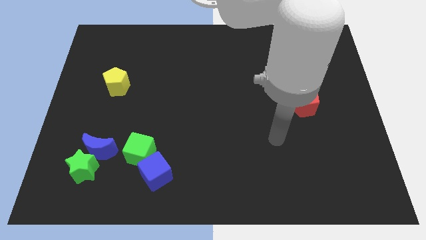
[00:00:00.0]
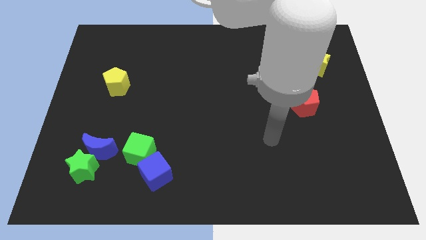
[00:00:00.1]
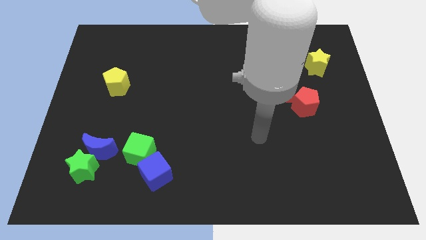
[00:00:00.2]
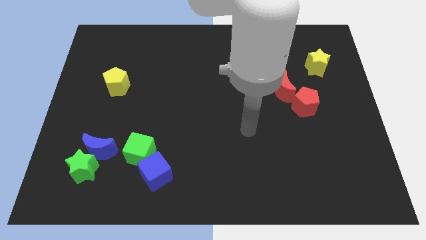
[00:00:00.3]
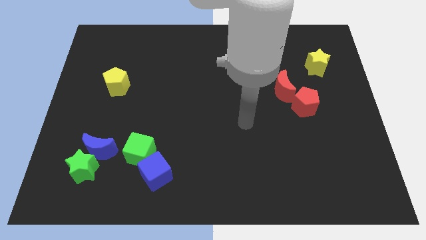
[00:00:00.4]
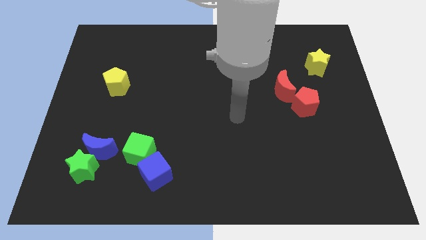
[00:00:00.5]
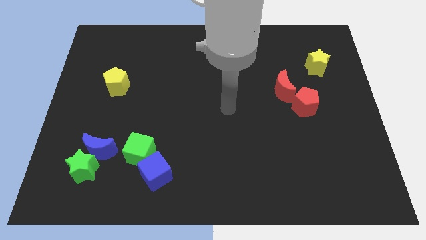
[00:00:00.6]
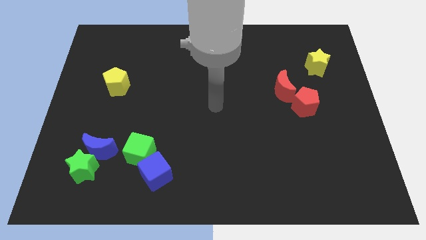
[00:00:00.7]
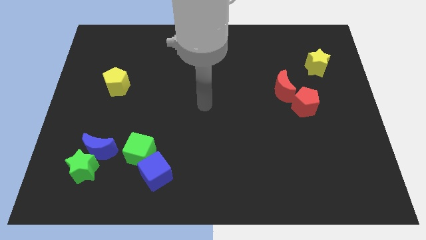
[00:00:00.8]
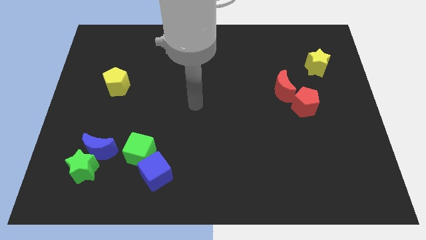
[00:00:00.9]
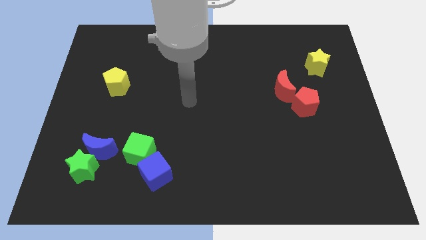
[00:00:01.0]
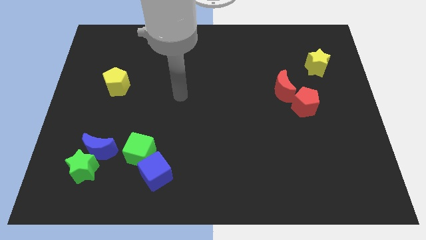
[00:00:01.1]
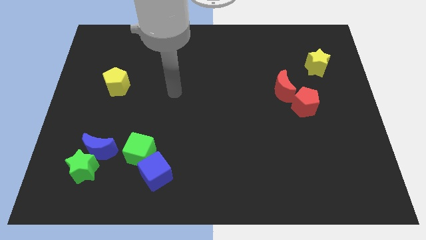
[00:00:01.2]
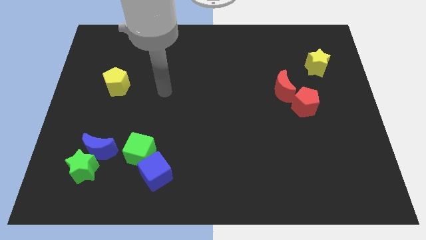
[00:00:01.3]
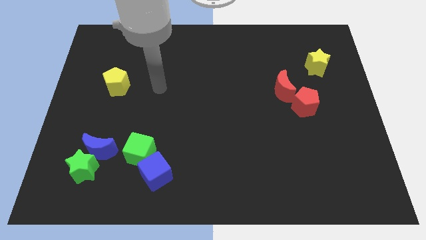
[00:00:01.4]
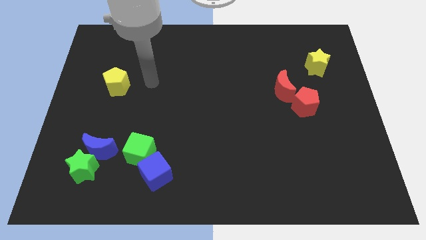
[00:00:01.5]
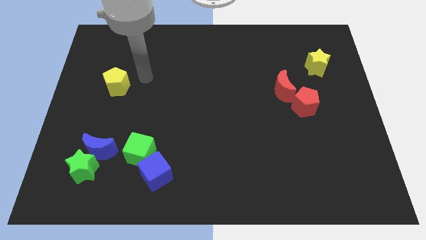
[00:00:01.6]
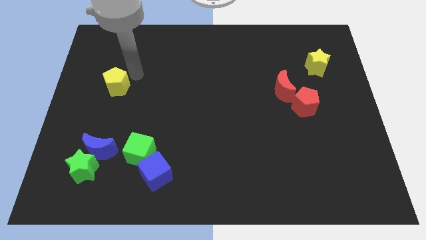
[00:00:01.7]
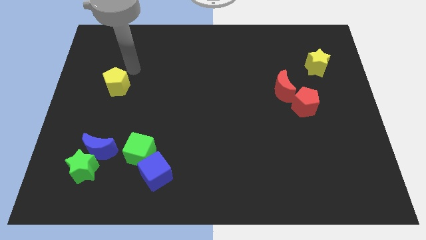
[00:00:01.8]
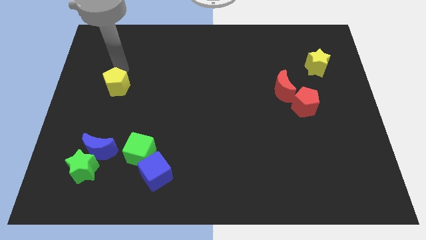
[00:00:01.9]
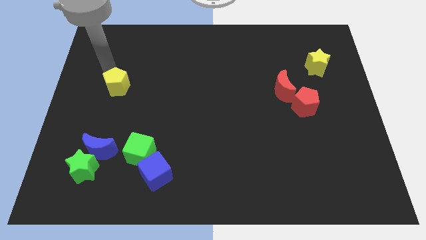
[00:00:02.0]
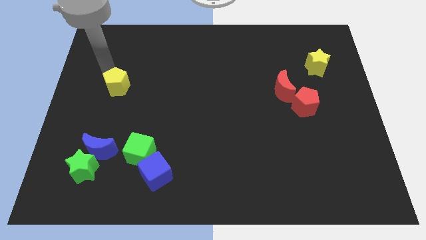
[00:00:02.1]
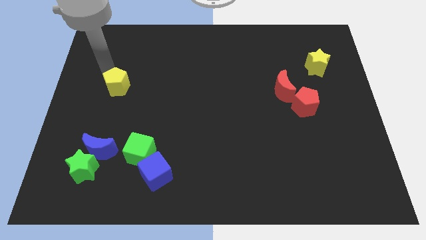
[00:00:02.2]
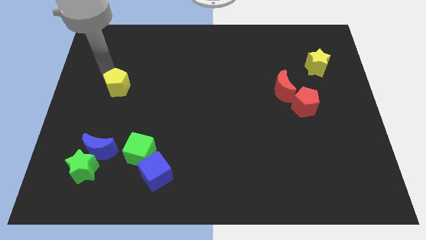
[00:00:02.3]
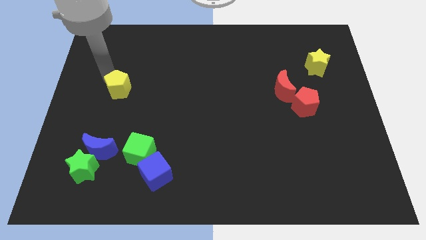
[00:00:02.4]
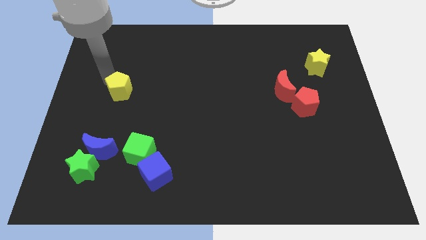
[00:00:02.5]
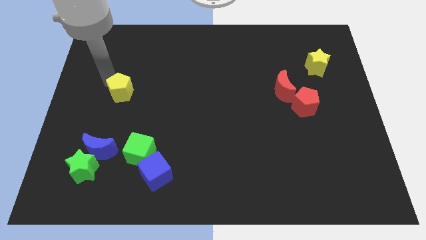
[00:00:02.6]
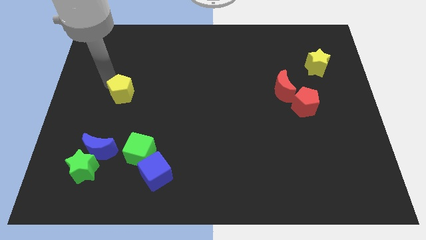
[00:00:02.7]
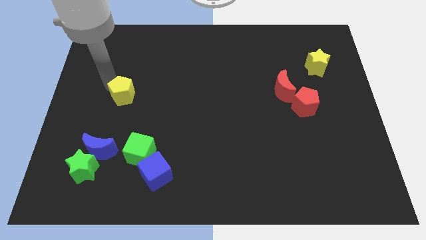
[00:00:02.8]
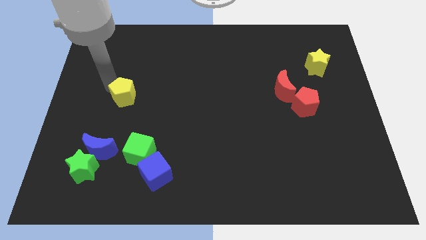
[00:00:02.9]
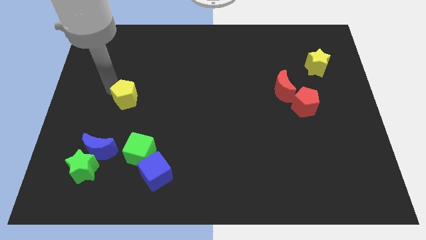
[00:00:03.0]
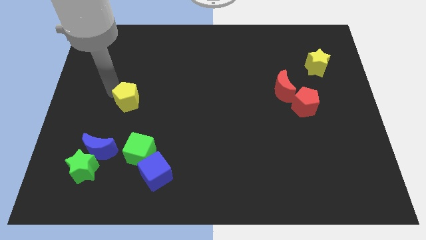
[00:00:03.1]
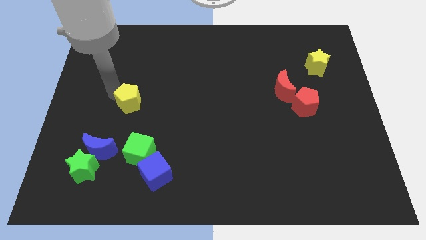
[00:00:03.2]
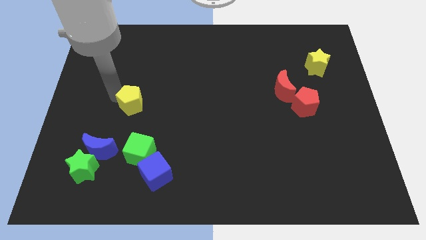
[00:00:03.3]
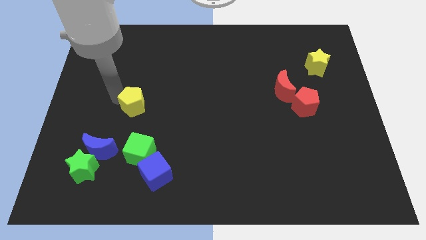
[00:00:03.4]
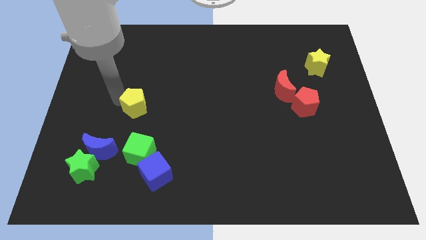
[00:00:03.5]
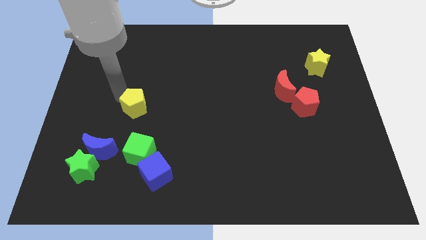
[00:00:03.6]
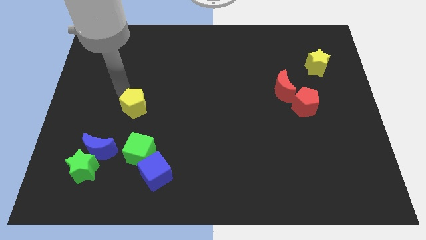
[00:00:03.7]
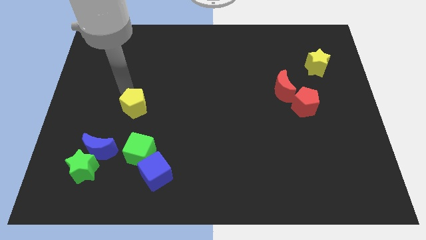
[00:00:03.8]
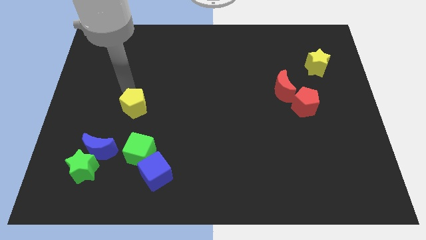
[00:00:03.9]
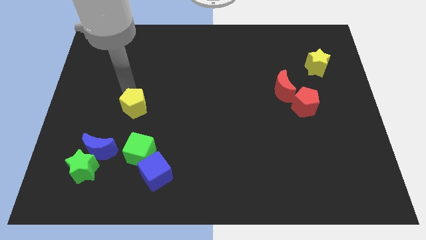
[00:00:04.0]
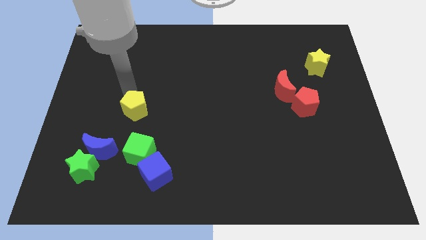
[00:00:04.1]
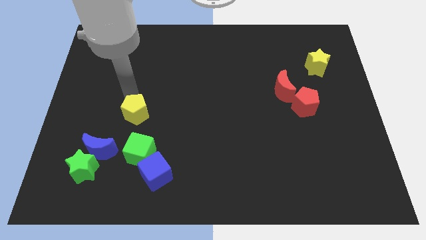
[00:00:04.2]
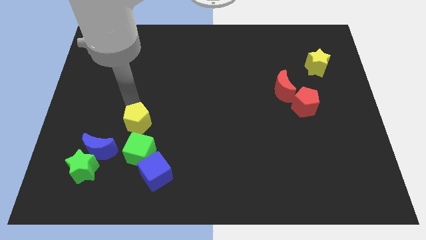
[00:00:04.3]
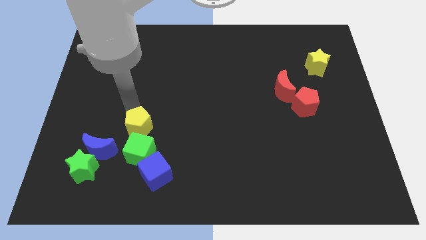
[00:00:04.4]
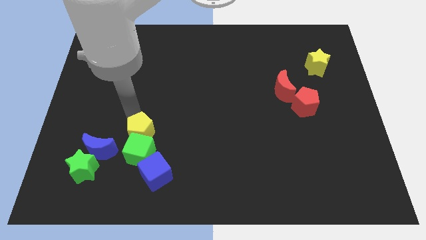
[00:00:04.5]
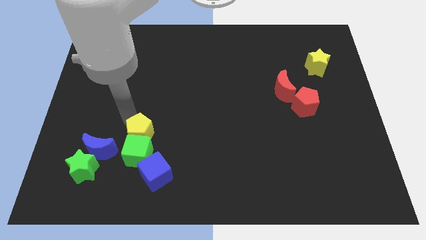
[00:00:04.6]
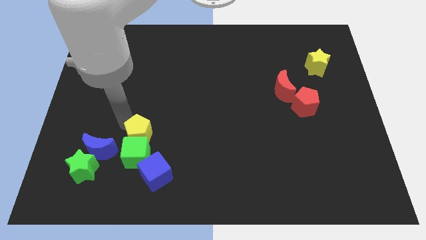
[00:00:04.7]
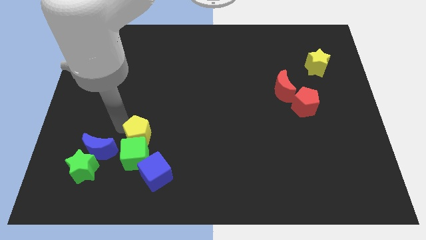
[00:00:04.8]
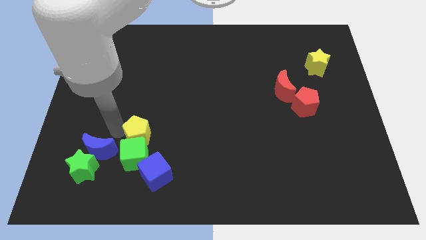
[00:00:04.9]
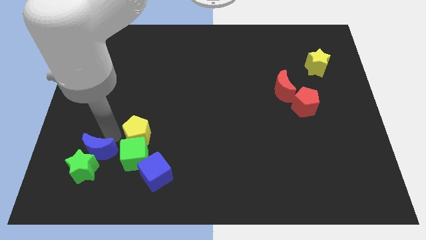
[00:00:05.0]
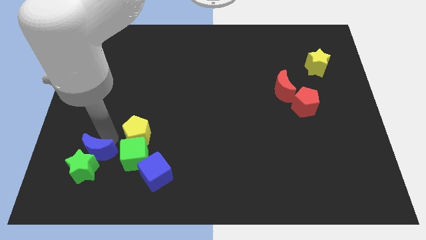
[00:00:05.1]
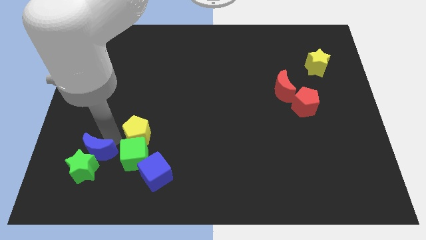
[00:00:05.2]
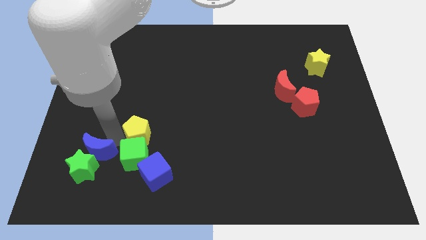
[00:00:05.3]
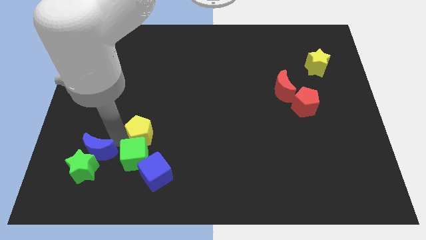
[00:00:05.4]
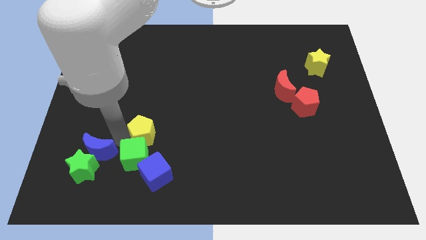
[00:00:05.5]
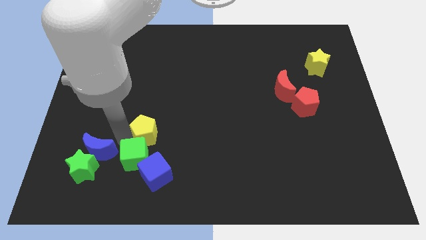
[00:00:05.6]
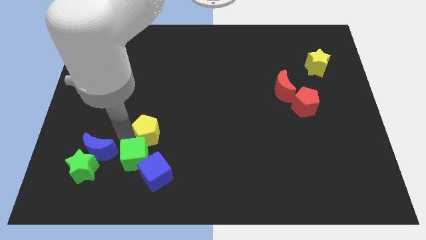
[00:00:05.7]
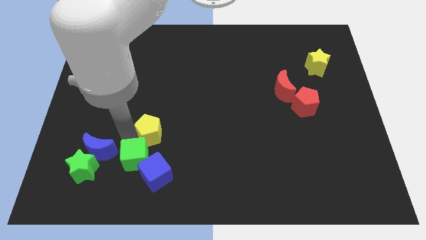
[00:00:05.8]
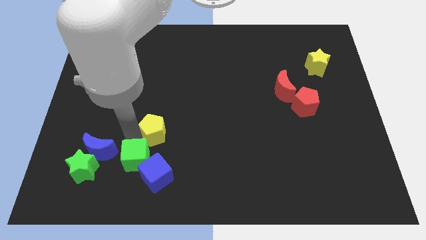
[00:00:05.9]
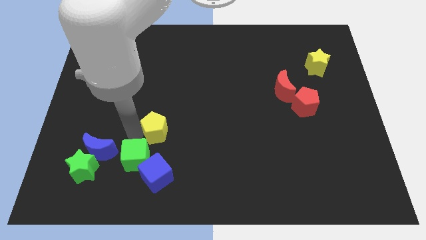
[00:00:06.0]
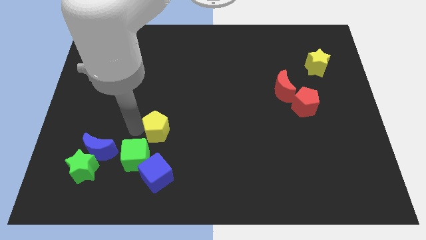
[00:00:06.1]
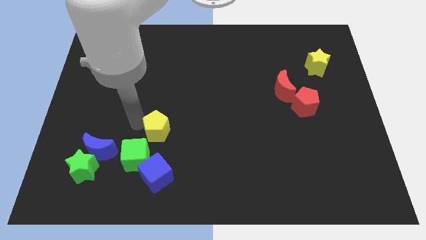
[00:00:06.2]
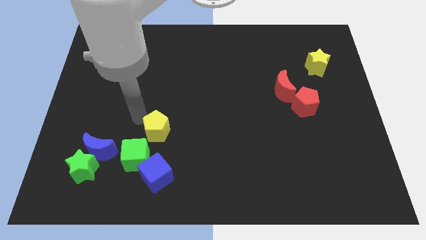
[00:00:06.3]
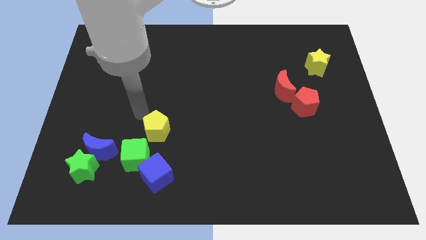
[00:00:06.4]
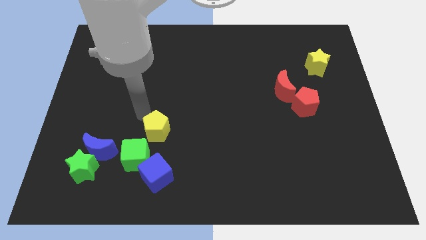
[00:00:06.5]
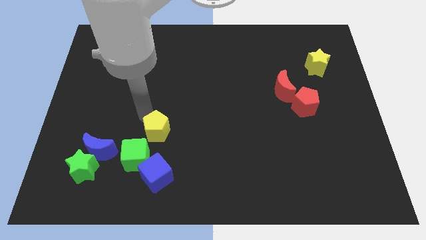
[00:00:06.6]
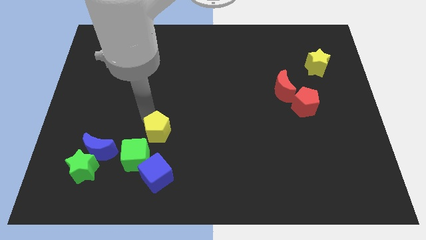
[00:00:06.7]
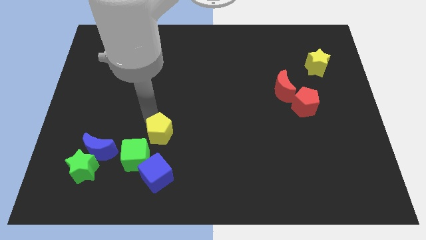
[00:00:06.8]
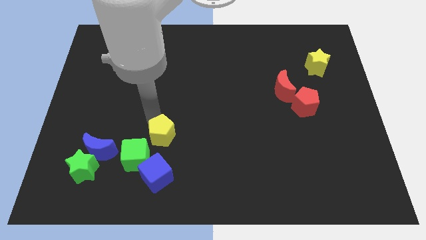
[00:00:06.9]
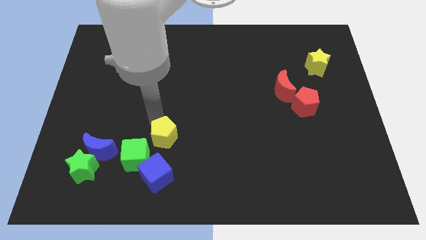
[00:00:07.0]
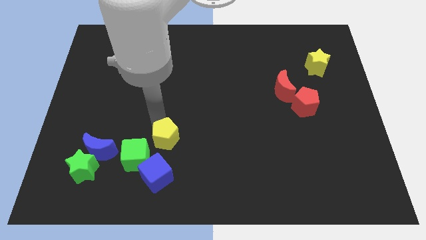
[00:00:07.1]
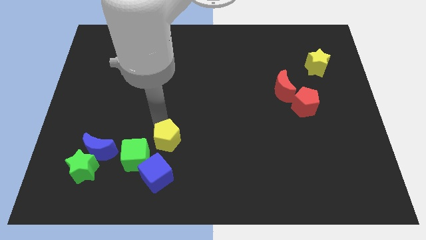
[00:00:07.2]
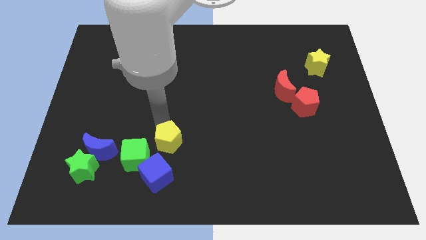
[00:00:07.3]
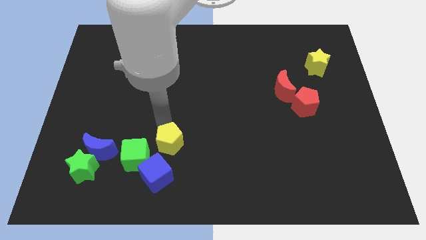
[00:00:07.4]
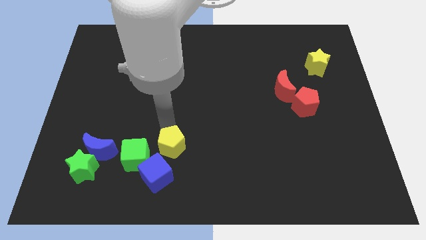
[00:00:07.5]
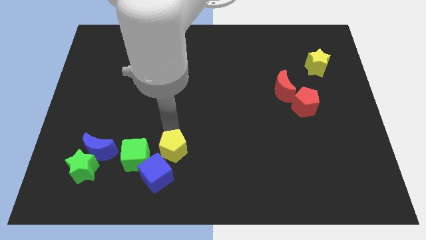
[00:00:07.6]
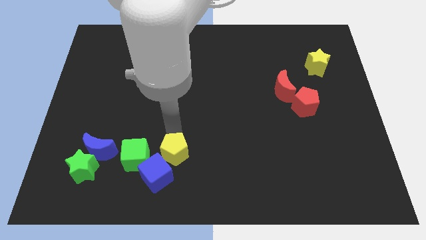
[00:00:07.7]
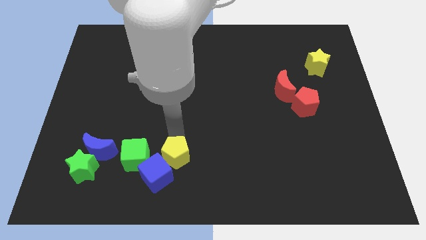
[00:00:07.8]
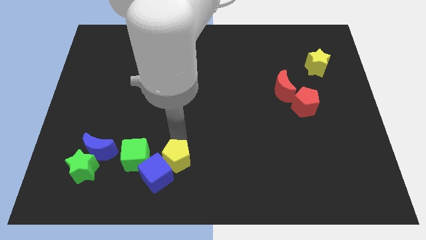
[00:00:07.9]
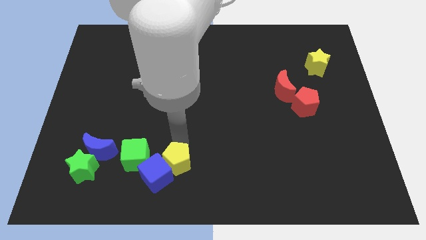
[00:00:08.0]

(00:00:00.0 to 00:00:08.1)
push the yellow pentagon to the bottom
